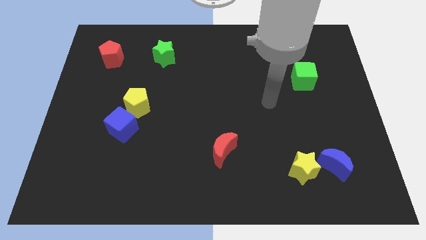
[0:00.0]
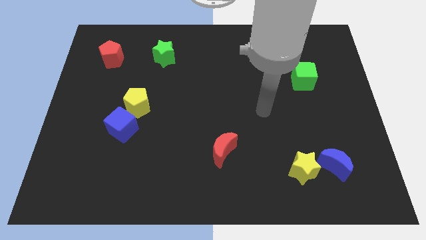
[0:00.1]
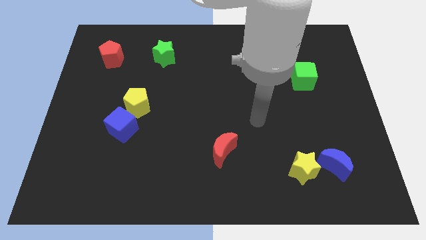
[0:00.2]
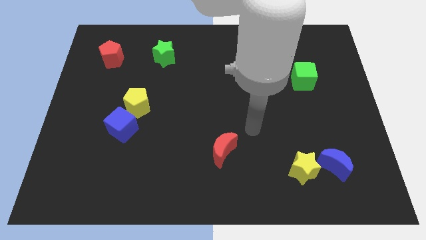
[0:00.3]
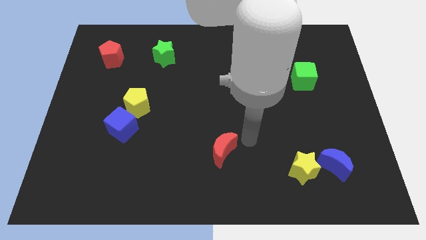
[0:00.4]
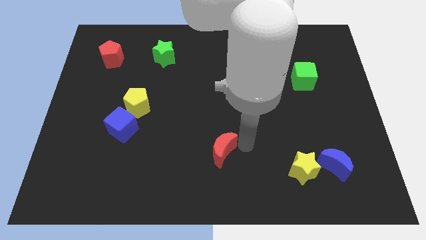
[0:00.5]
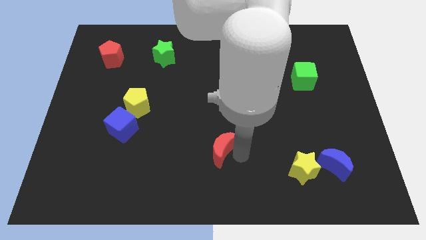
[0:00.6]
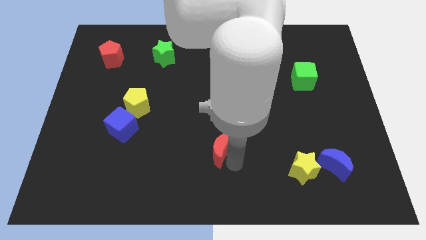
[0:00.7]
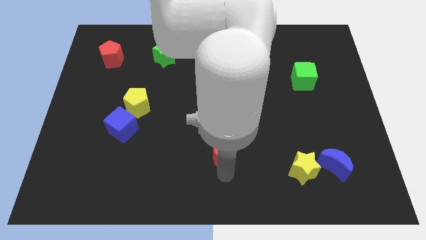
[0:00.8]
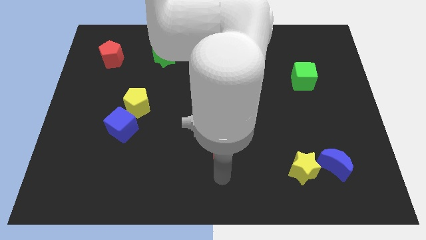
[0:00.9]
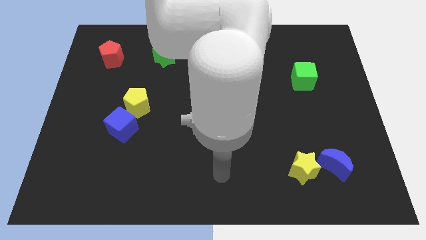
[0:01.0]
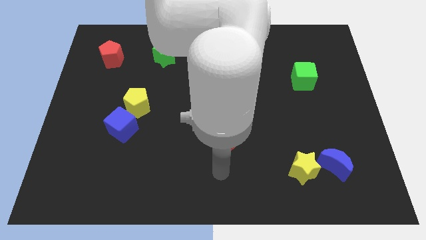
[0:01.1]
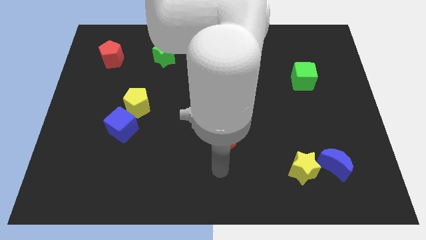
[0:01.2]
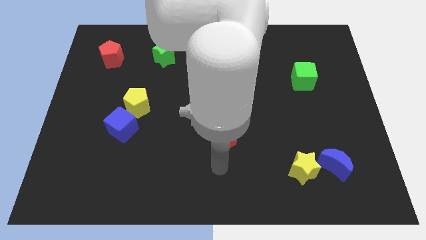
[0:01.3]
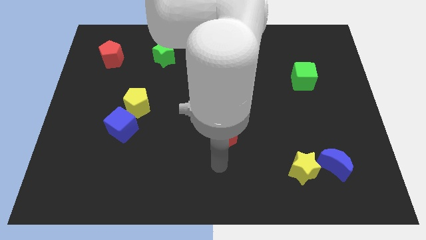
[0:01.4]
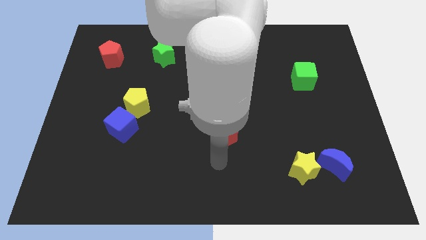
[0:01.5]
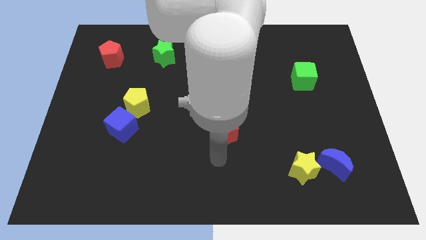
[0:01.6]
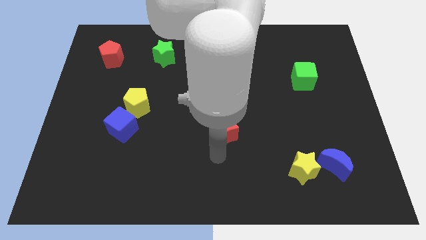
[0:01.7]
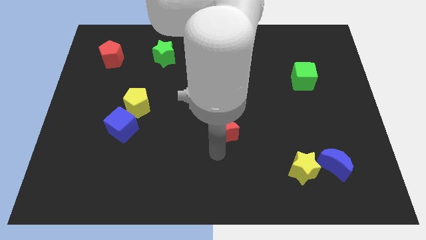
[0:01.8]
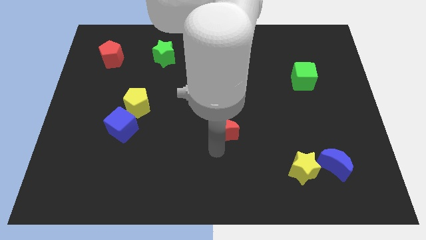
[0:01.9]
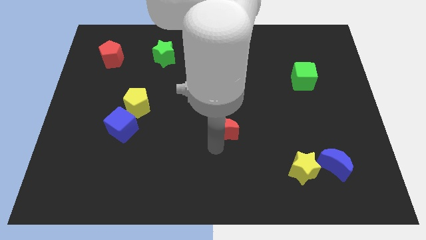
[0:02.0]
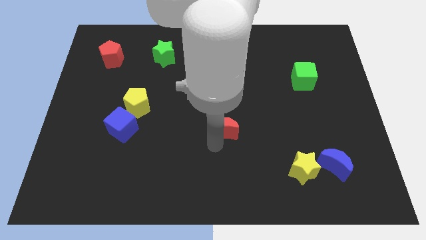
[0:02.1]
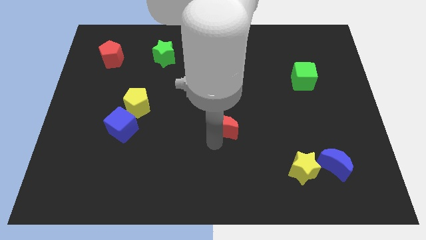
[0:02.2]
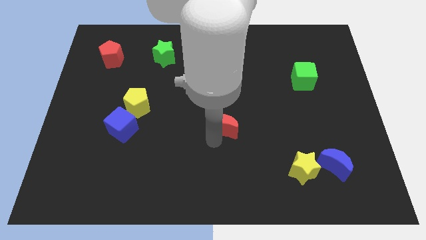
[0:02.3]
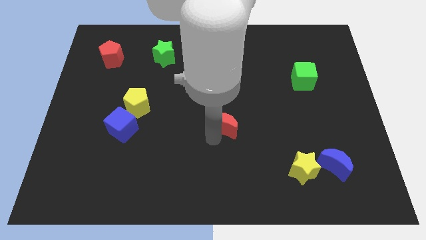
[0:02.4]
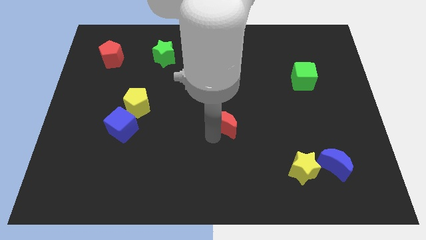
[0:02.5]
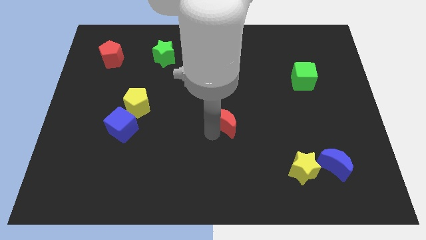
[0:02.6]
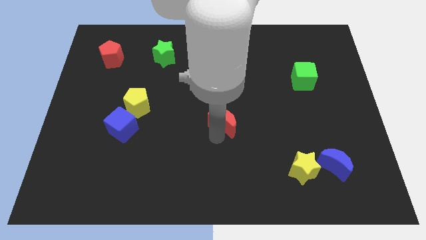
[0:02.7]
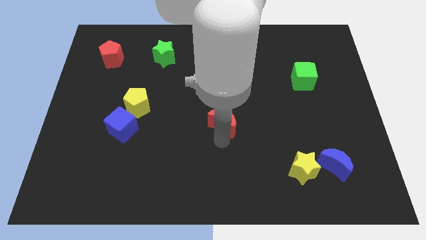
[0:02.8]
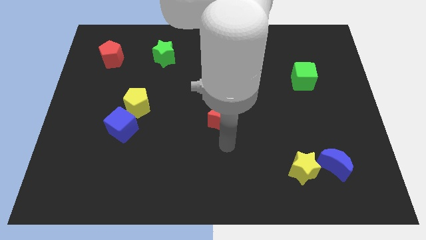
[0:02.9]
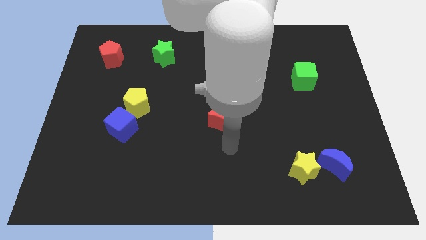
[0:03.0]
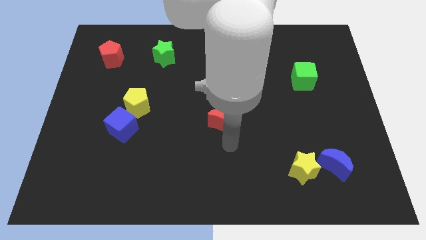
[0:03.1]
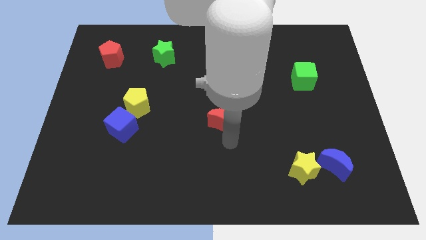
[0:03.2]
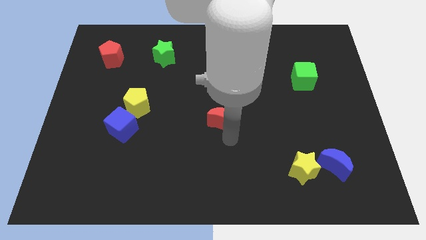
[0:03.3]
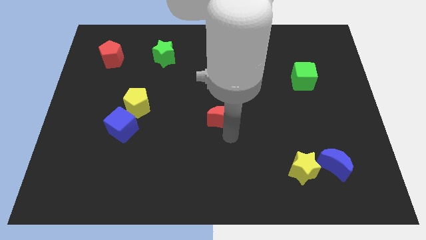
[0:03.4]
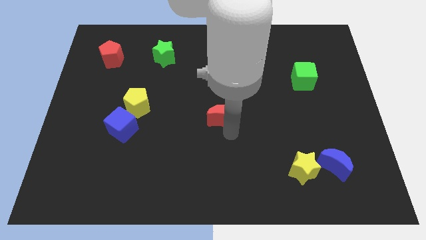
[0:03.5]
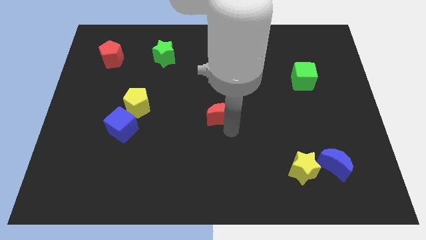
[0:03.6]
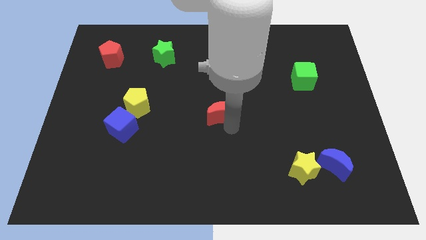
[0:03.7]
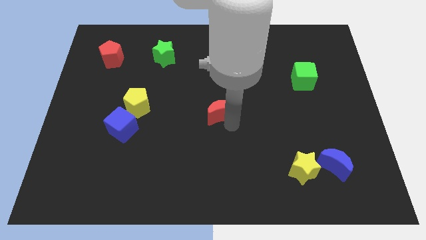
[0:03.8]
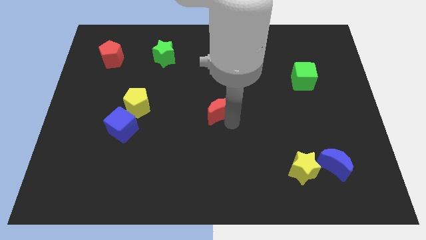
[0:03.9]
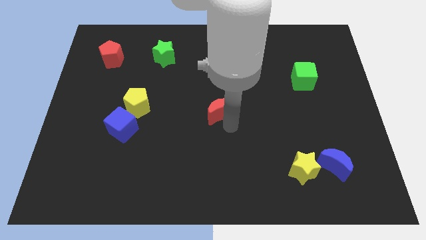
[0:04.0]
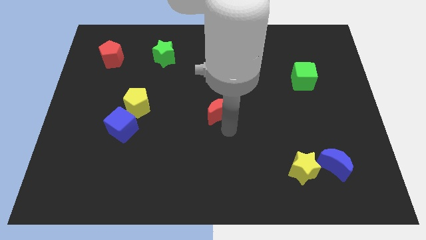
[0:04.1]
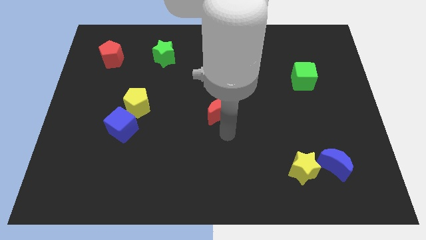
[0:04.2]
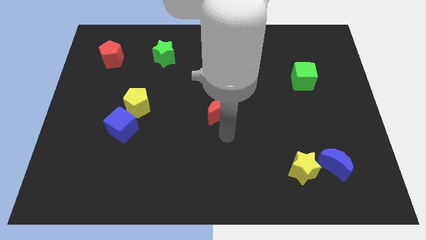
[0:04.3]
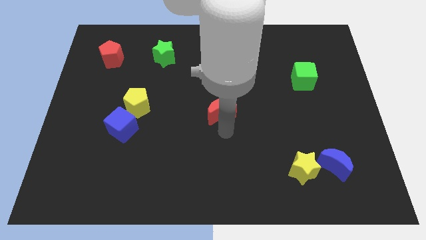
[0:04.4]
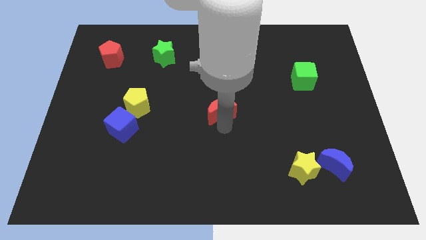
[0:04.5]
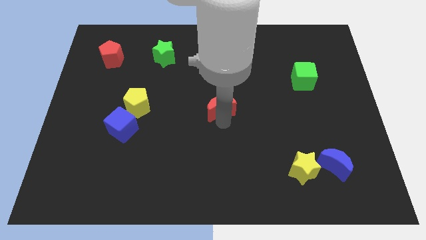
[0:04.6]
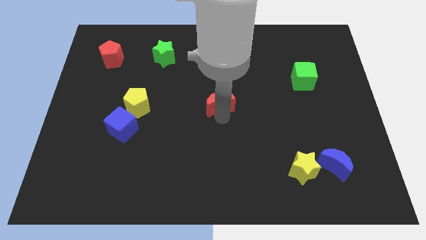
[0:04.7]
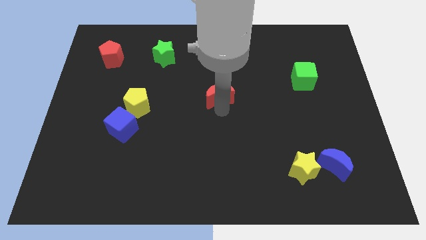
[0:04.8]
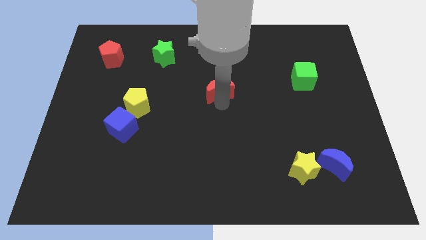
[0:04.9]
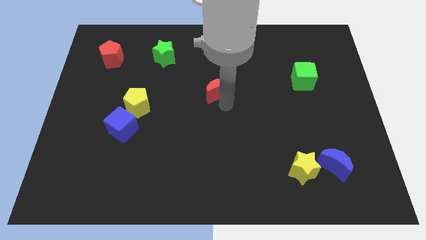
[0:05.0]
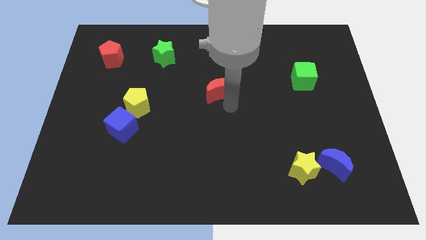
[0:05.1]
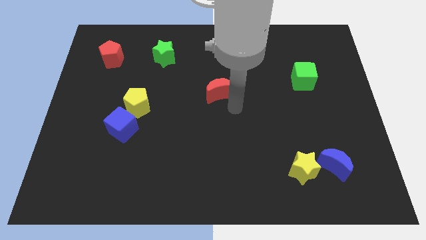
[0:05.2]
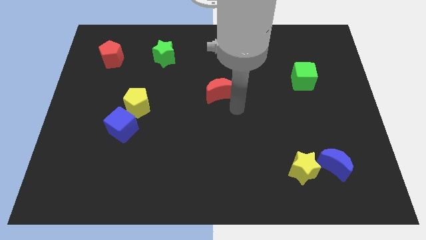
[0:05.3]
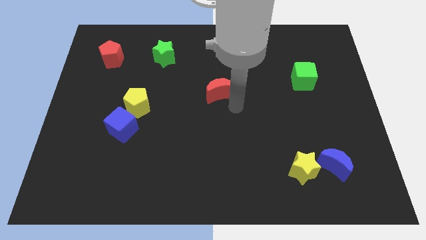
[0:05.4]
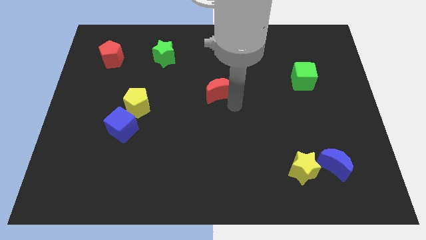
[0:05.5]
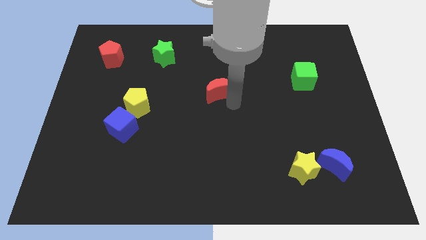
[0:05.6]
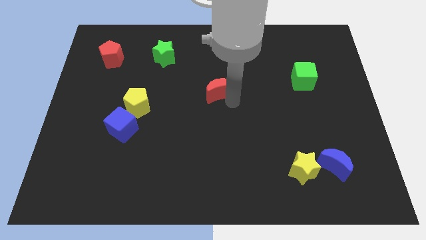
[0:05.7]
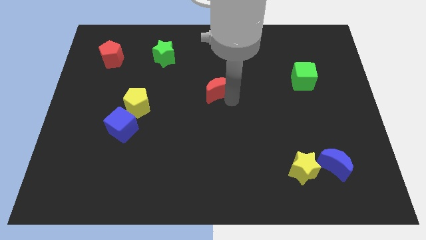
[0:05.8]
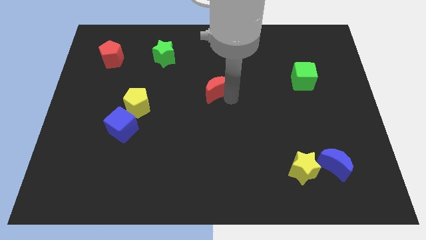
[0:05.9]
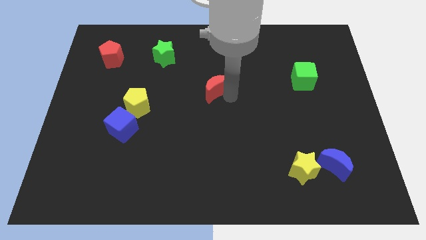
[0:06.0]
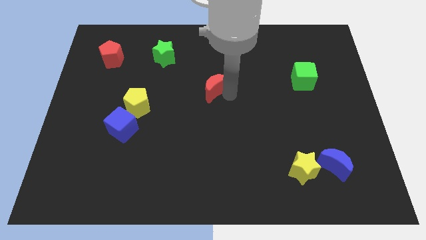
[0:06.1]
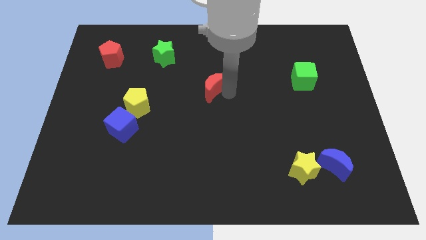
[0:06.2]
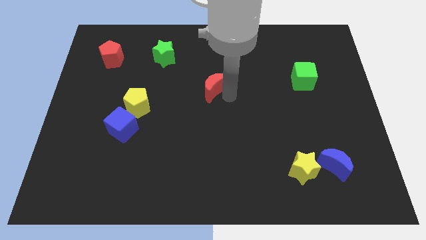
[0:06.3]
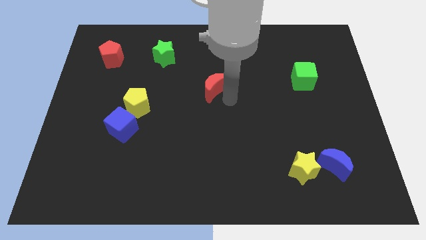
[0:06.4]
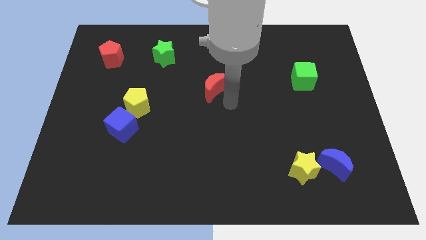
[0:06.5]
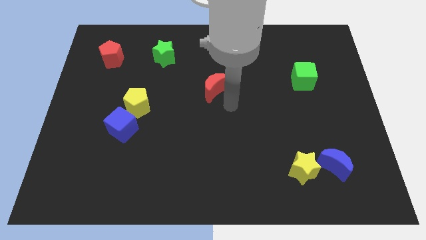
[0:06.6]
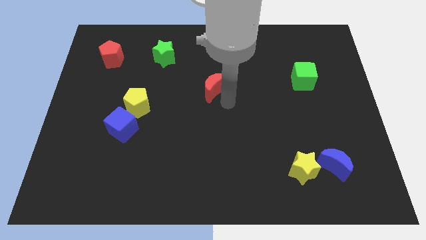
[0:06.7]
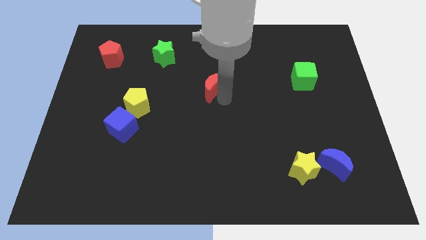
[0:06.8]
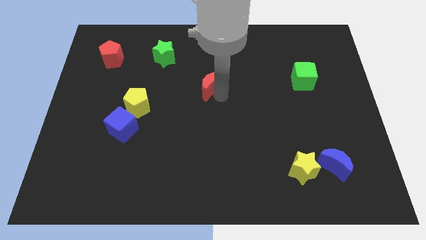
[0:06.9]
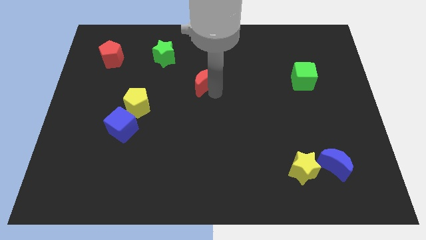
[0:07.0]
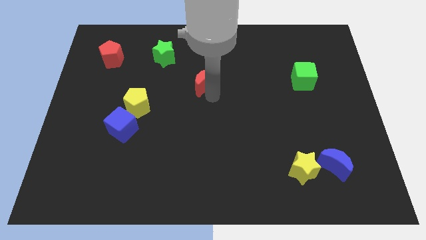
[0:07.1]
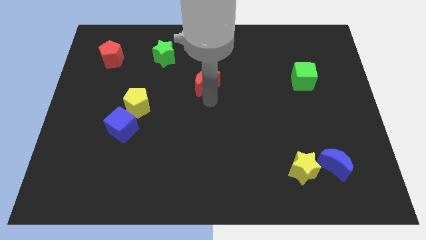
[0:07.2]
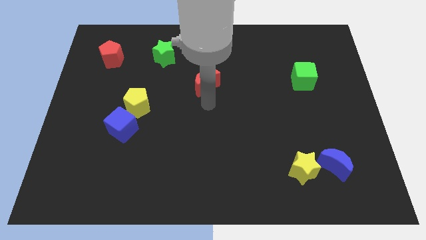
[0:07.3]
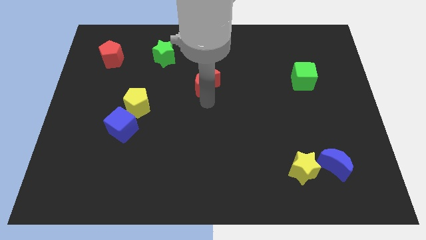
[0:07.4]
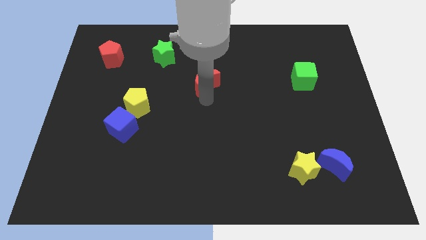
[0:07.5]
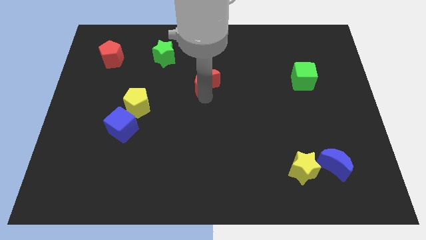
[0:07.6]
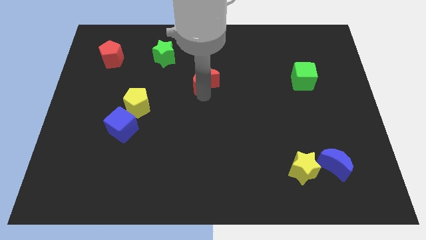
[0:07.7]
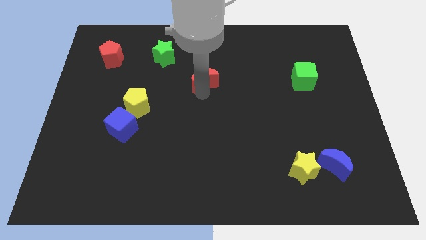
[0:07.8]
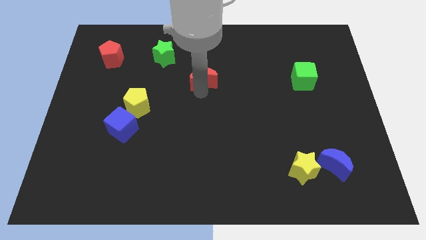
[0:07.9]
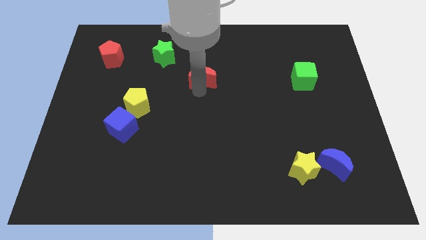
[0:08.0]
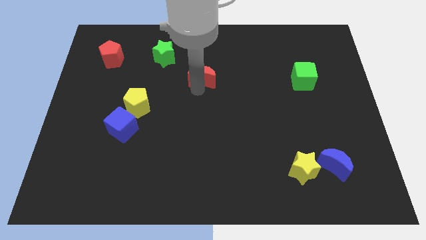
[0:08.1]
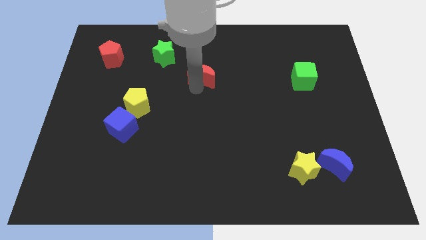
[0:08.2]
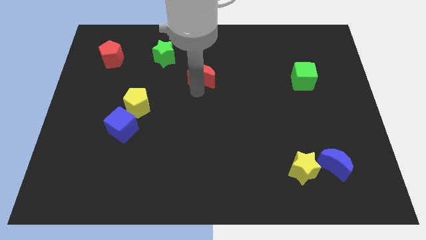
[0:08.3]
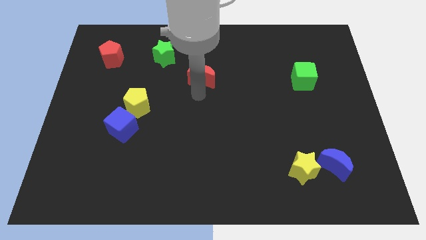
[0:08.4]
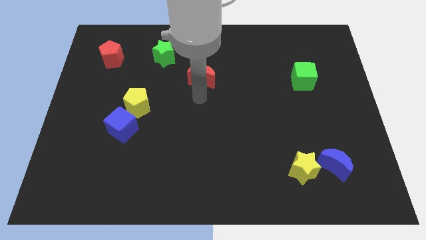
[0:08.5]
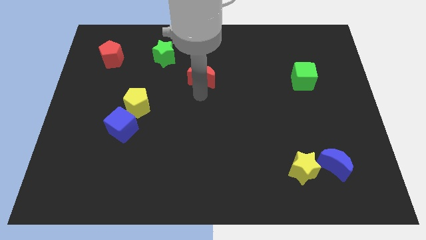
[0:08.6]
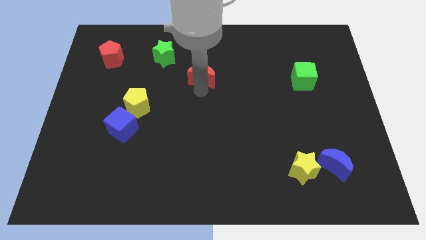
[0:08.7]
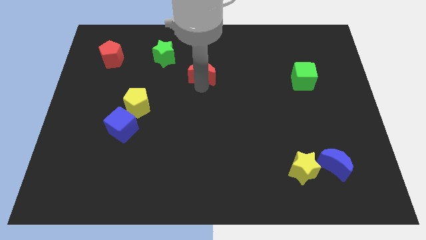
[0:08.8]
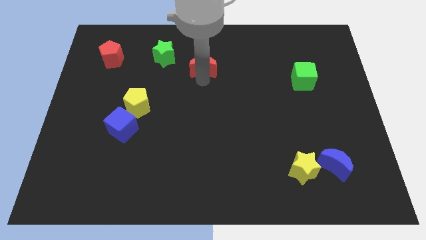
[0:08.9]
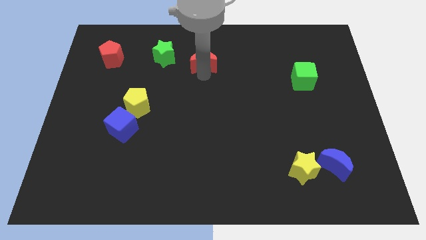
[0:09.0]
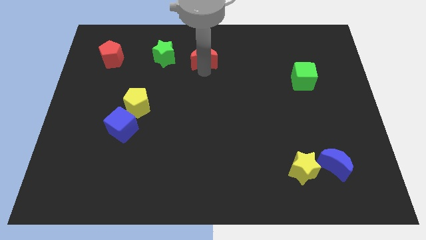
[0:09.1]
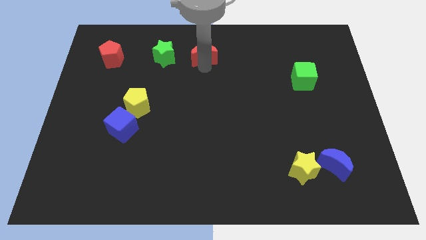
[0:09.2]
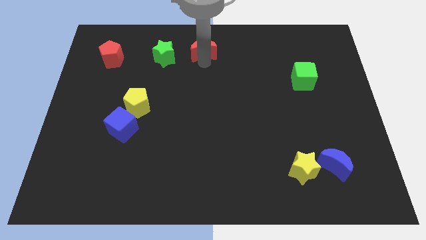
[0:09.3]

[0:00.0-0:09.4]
slide the red moon to the top
